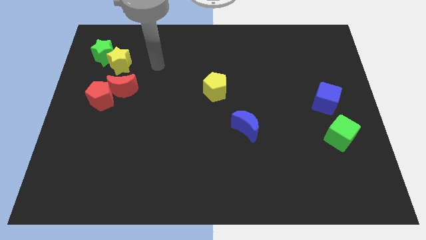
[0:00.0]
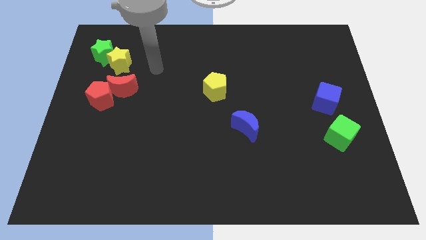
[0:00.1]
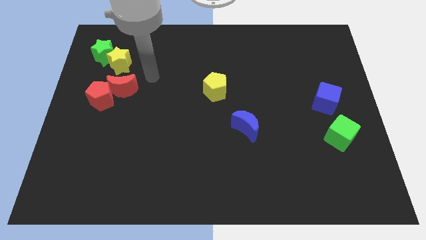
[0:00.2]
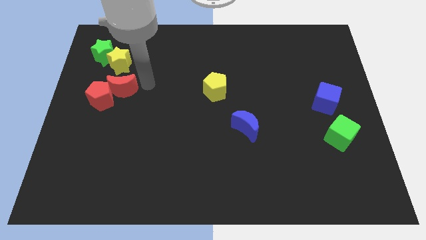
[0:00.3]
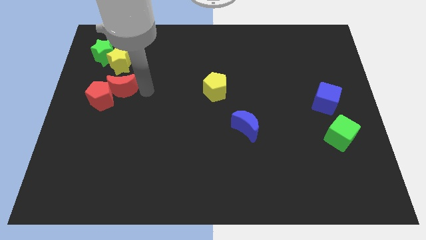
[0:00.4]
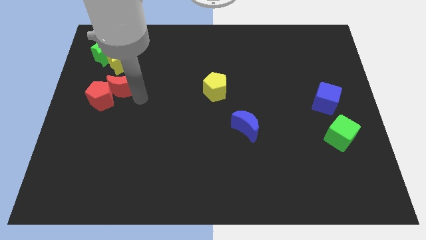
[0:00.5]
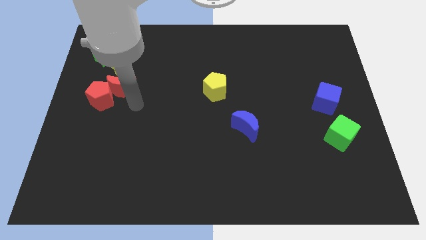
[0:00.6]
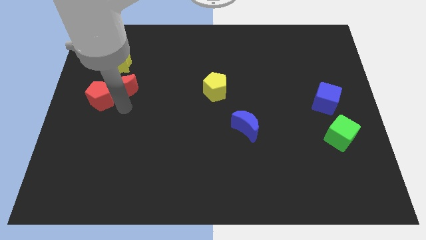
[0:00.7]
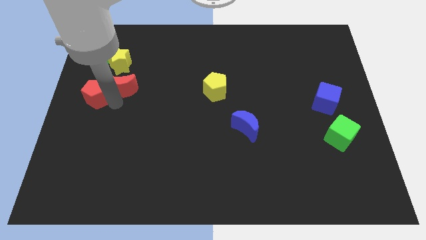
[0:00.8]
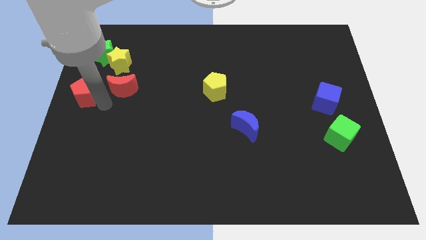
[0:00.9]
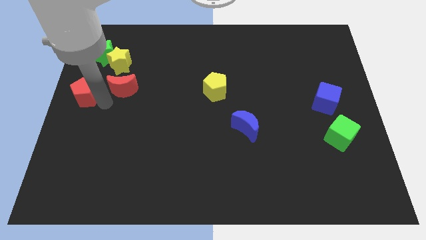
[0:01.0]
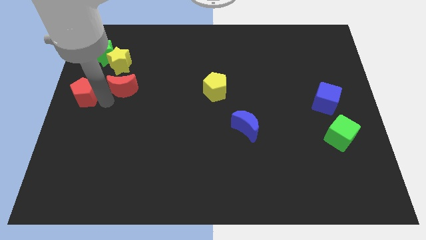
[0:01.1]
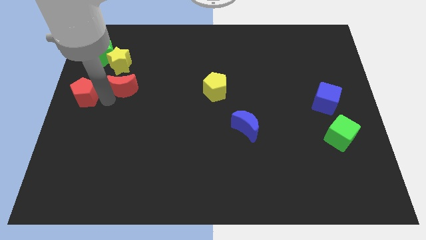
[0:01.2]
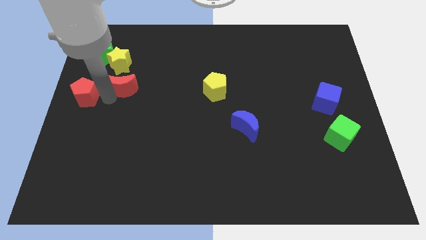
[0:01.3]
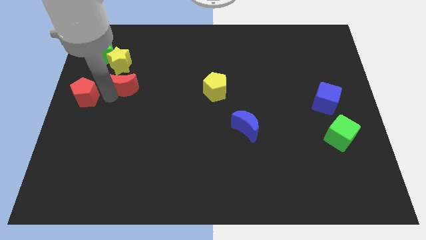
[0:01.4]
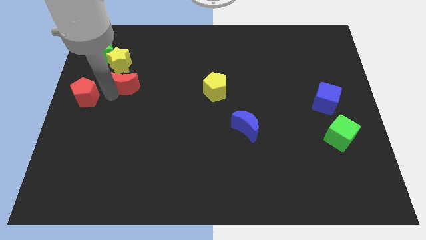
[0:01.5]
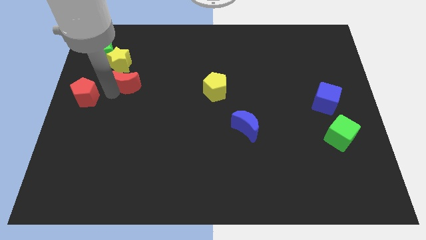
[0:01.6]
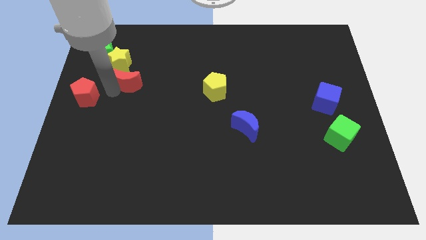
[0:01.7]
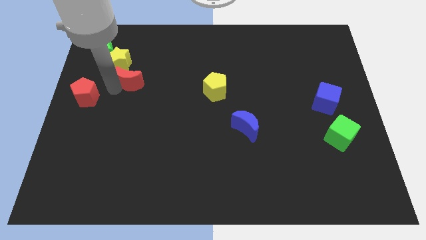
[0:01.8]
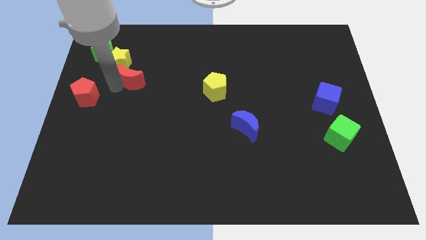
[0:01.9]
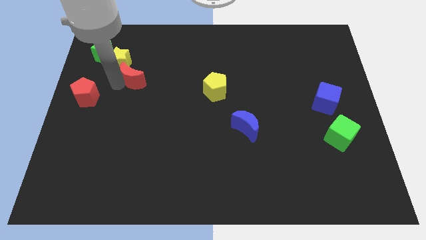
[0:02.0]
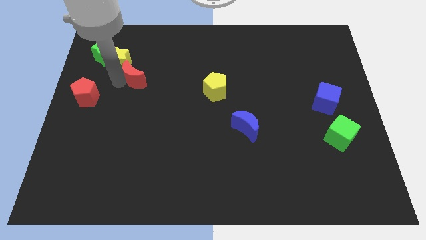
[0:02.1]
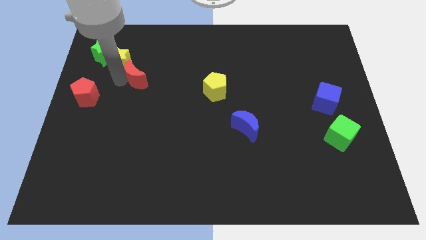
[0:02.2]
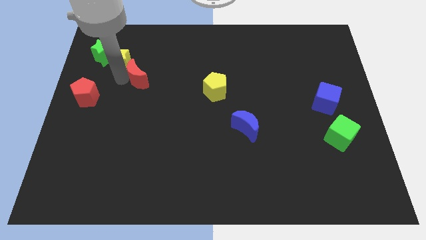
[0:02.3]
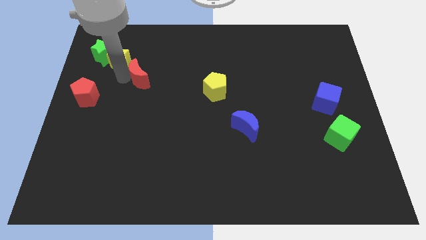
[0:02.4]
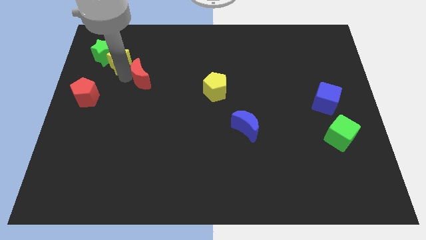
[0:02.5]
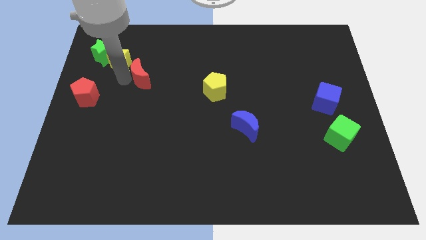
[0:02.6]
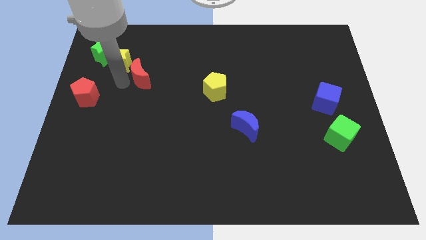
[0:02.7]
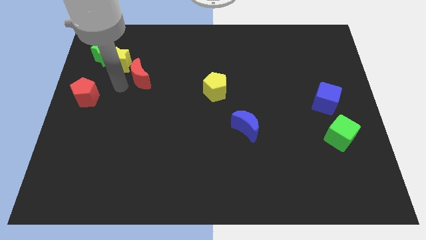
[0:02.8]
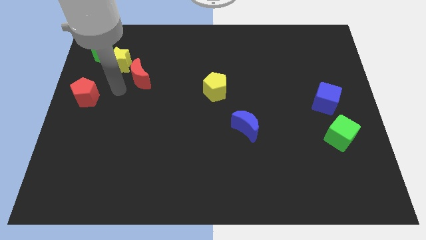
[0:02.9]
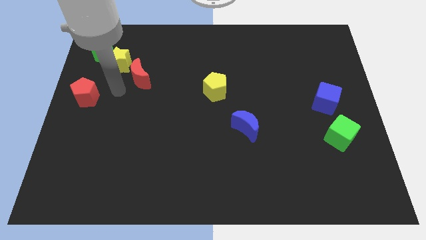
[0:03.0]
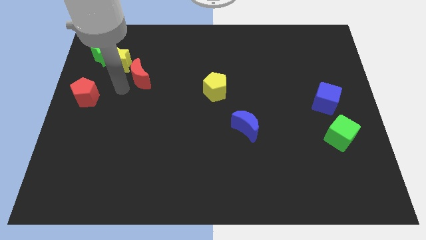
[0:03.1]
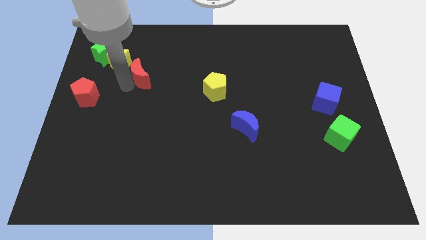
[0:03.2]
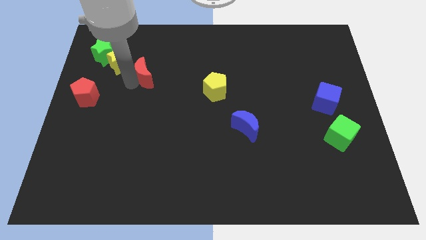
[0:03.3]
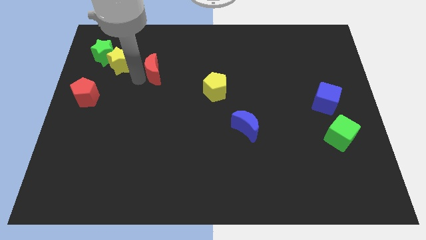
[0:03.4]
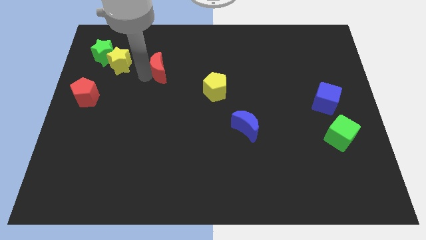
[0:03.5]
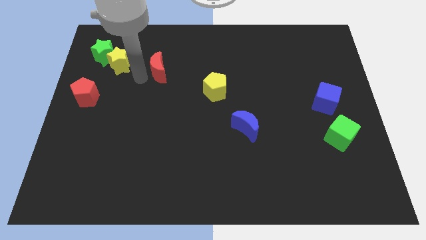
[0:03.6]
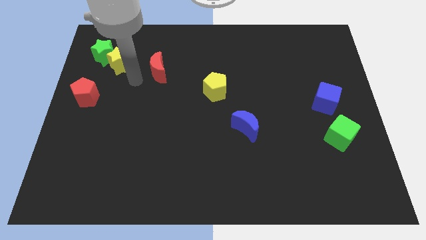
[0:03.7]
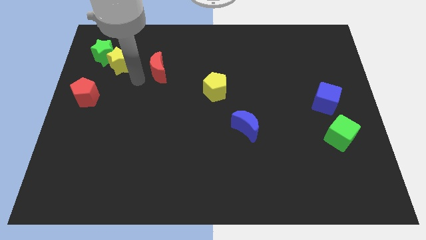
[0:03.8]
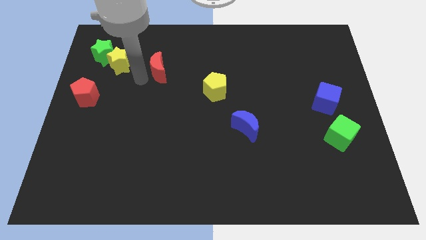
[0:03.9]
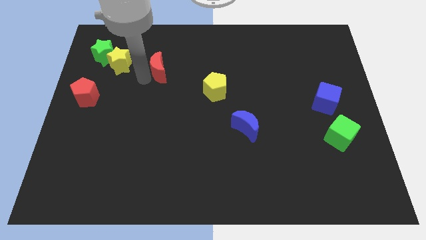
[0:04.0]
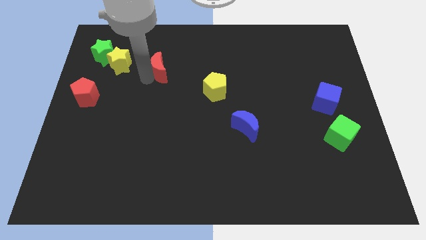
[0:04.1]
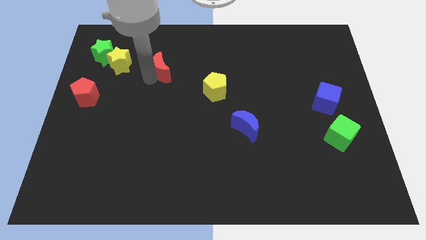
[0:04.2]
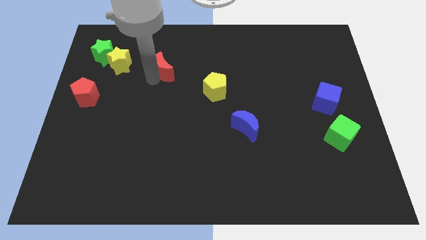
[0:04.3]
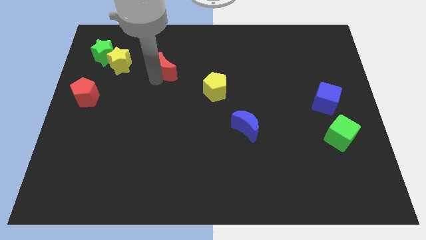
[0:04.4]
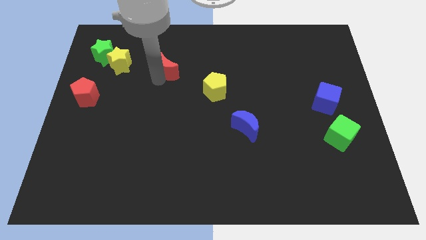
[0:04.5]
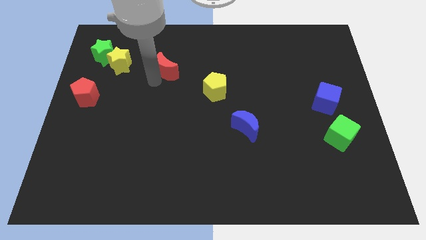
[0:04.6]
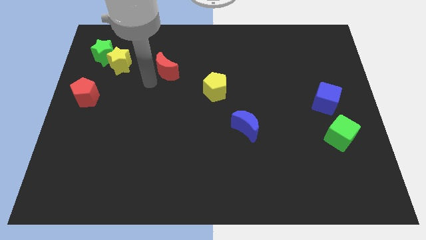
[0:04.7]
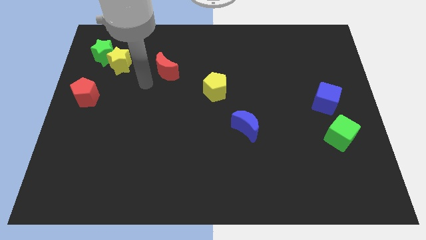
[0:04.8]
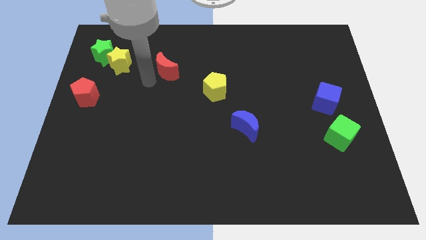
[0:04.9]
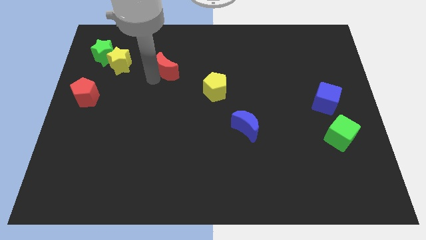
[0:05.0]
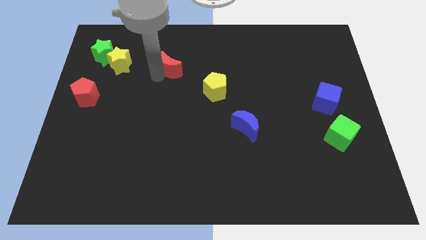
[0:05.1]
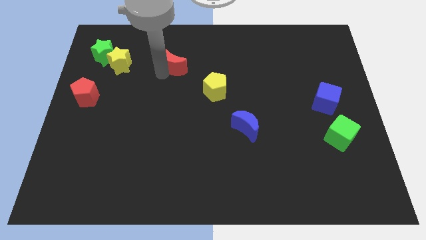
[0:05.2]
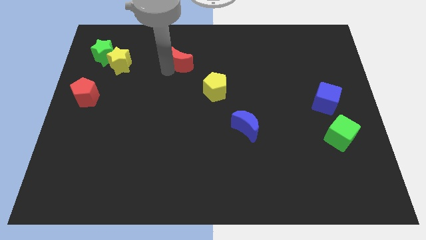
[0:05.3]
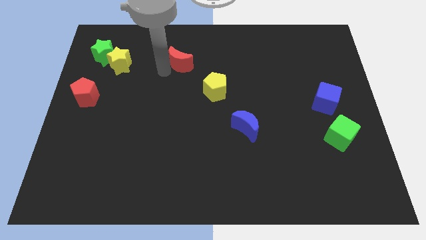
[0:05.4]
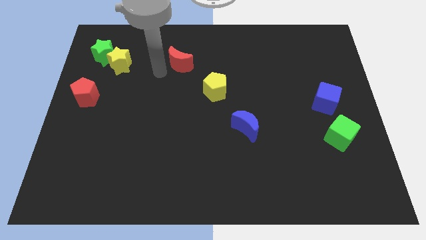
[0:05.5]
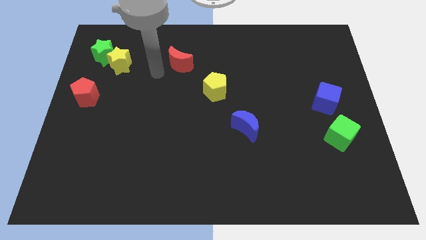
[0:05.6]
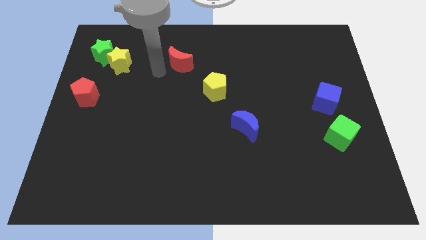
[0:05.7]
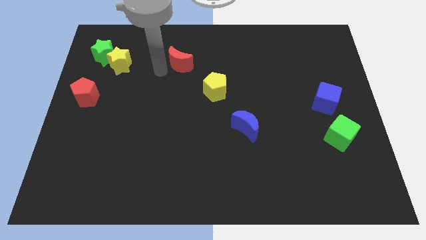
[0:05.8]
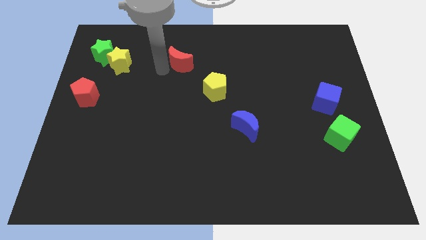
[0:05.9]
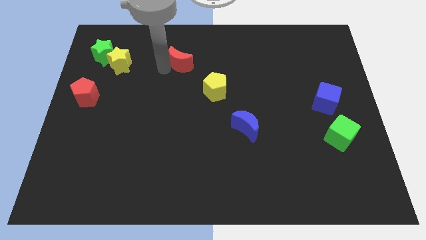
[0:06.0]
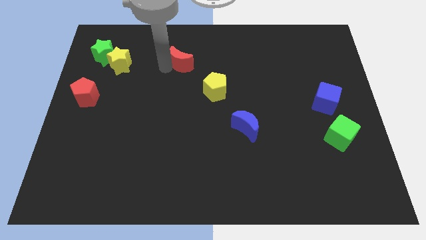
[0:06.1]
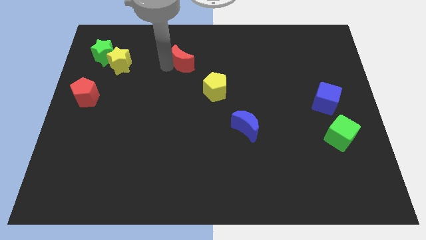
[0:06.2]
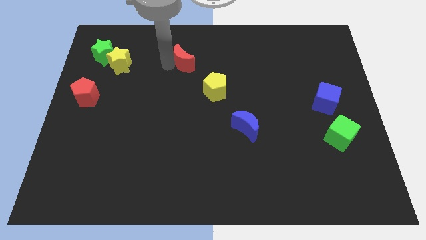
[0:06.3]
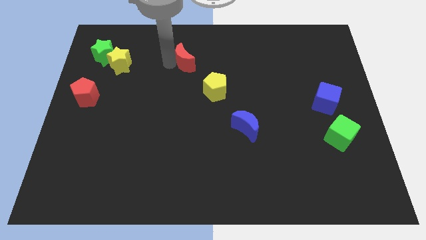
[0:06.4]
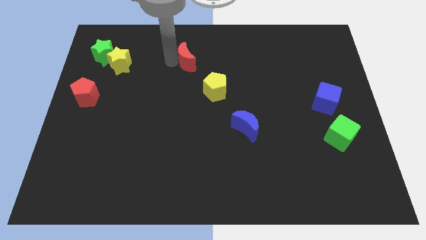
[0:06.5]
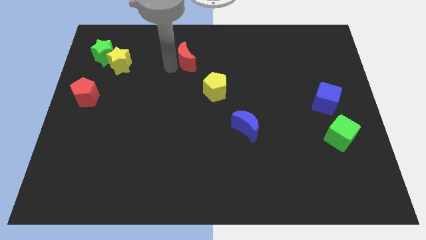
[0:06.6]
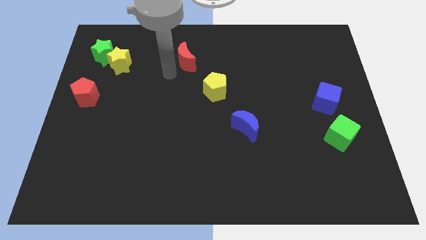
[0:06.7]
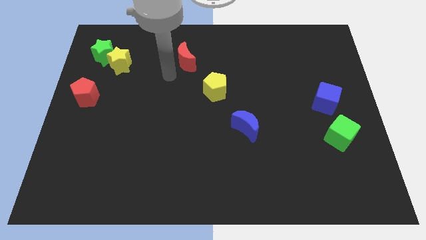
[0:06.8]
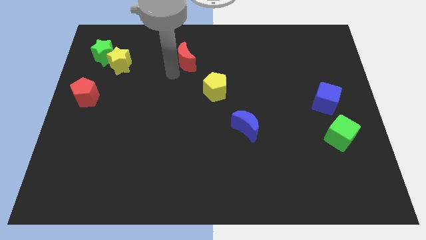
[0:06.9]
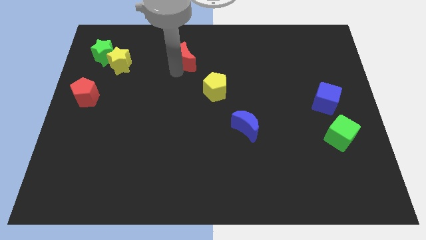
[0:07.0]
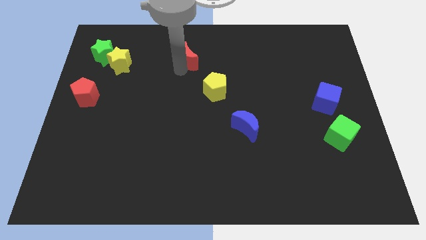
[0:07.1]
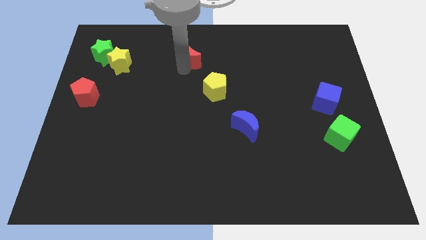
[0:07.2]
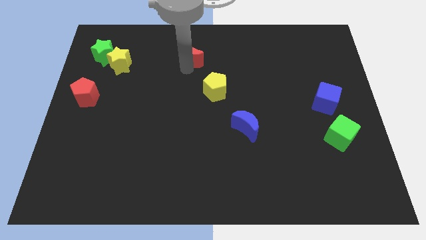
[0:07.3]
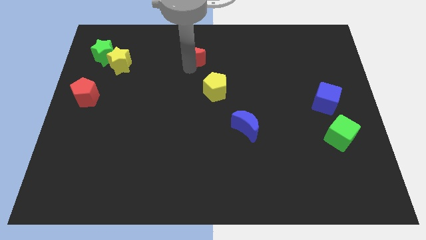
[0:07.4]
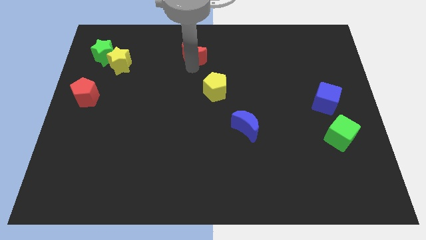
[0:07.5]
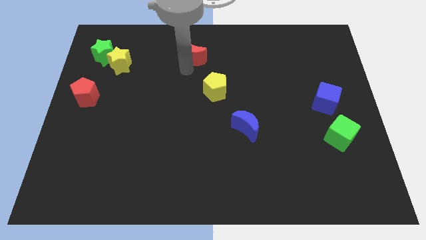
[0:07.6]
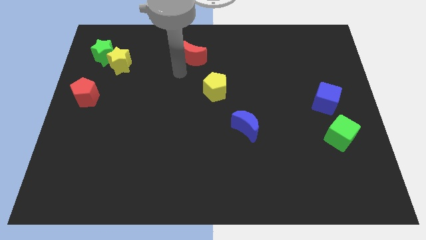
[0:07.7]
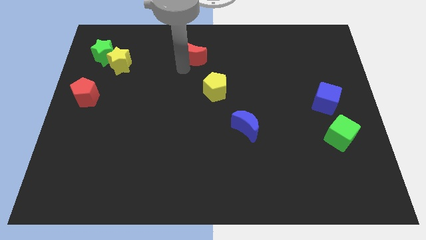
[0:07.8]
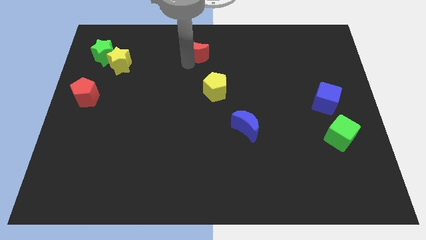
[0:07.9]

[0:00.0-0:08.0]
move the red moon to the top side
